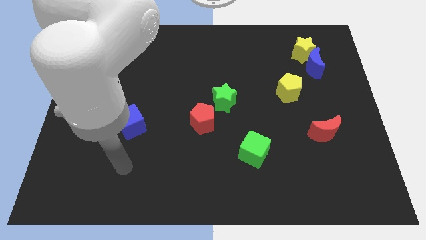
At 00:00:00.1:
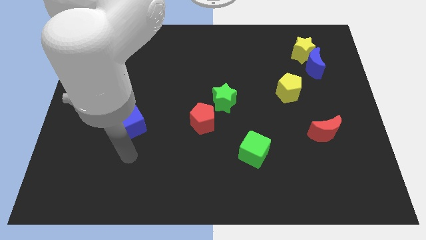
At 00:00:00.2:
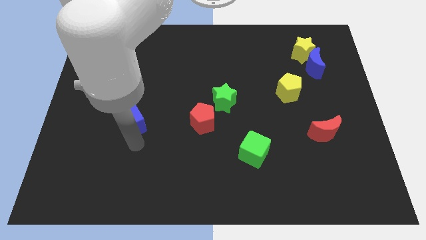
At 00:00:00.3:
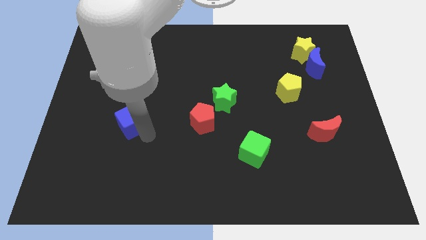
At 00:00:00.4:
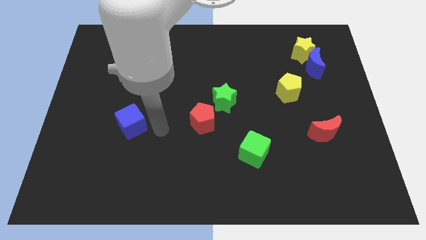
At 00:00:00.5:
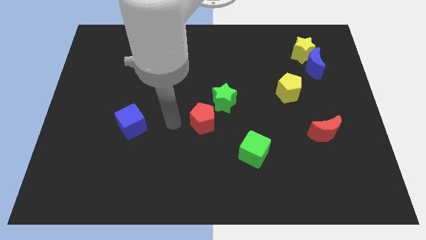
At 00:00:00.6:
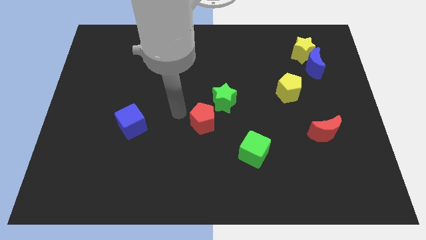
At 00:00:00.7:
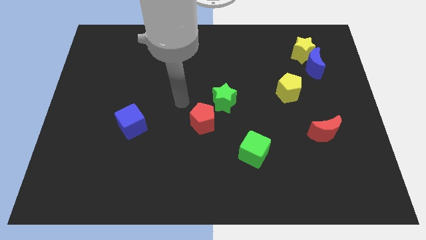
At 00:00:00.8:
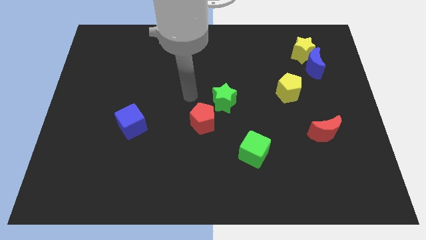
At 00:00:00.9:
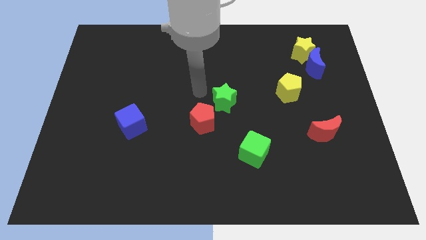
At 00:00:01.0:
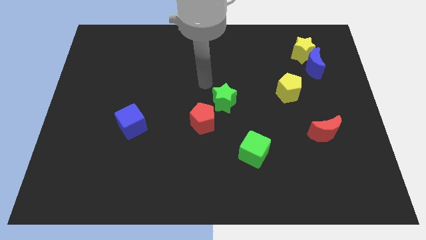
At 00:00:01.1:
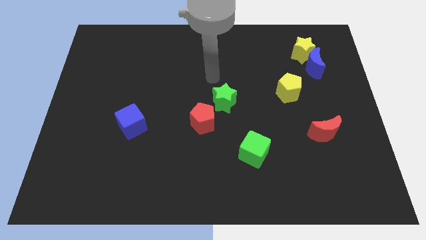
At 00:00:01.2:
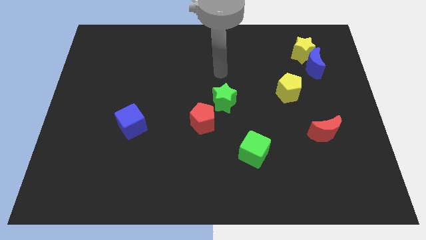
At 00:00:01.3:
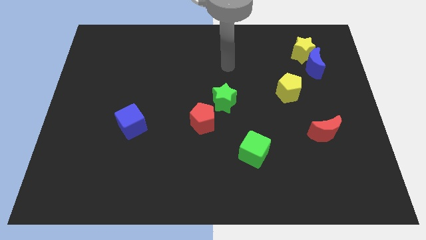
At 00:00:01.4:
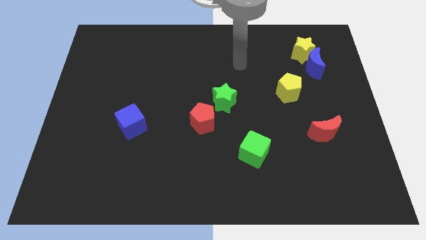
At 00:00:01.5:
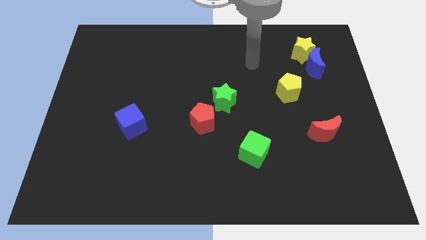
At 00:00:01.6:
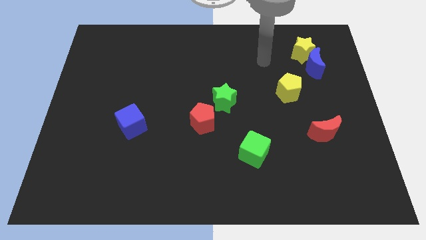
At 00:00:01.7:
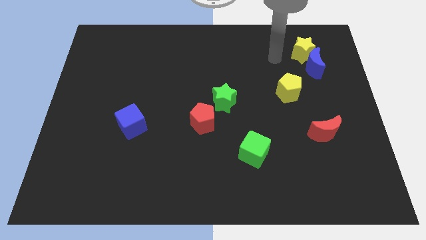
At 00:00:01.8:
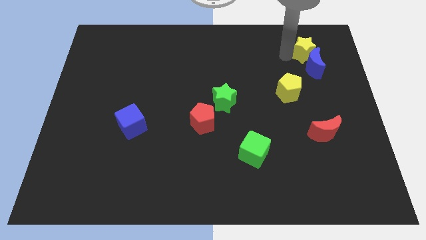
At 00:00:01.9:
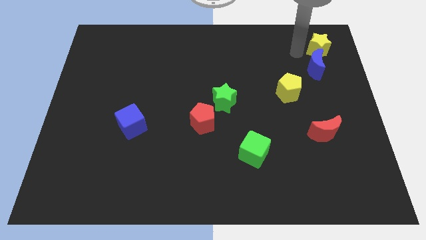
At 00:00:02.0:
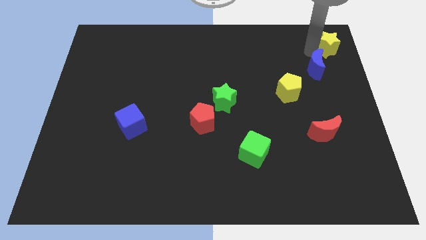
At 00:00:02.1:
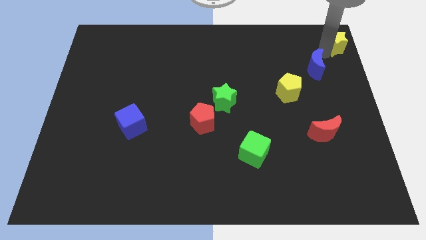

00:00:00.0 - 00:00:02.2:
pull the blue moon apart from the yellow star

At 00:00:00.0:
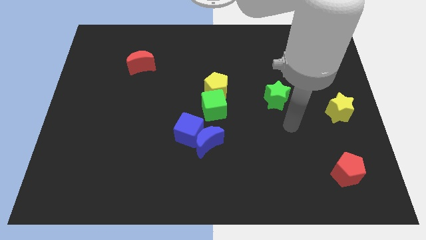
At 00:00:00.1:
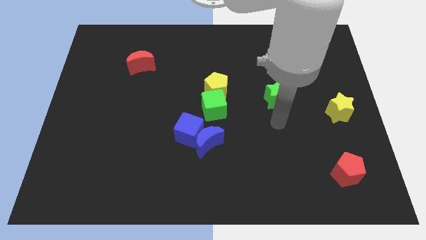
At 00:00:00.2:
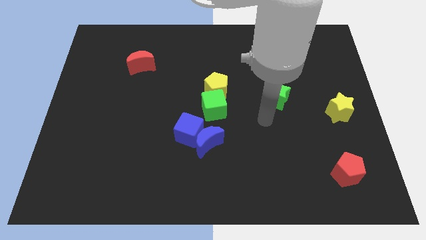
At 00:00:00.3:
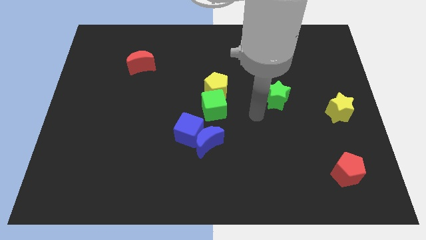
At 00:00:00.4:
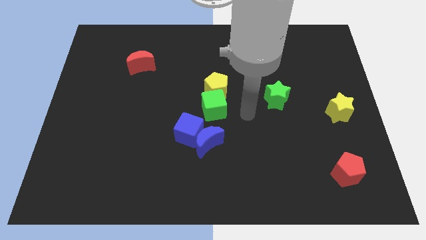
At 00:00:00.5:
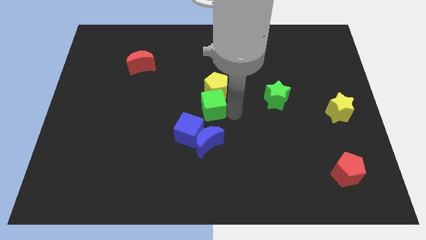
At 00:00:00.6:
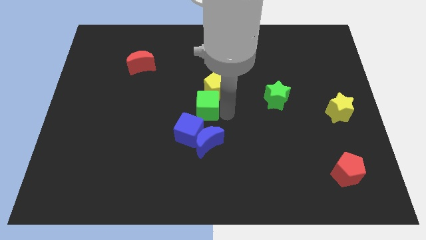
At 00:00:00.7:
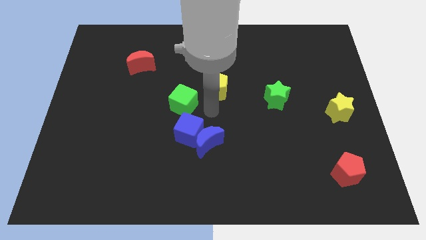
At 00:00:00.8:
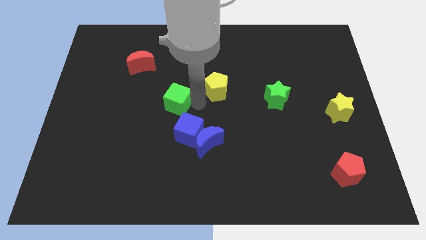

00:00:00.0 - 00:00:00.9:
move the yellow pentagon away from the green cube

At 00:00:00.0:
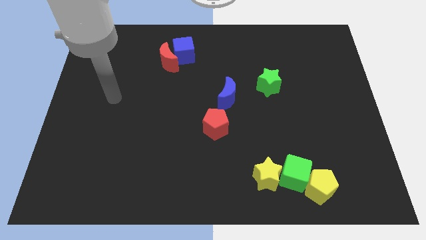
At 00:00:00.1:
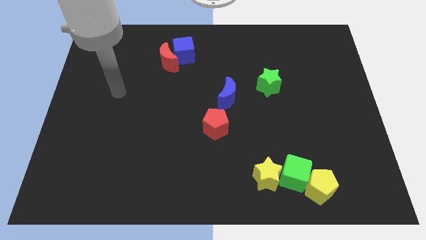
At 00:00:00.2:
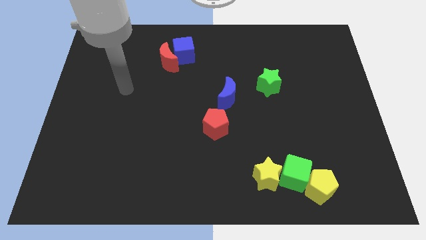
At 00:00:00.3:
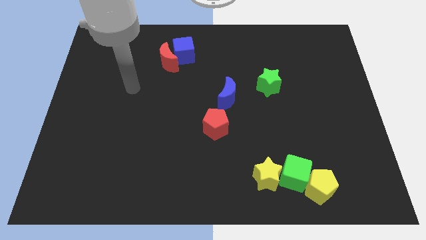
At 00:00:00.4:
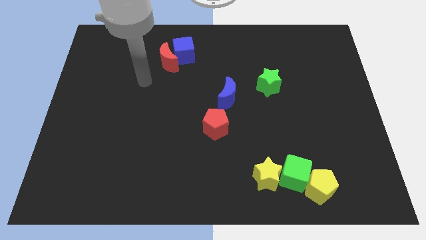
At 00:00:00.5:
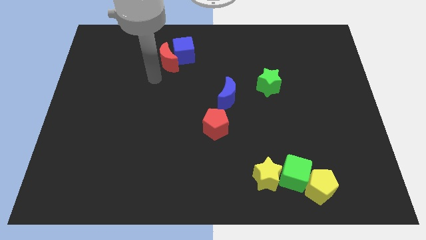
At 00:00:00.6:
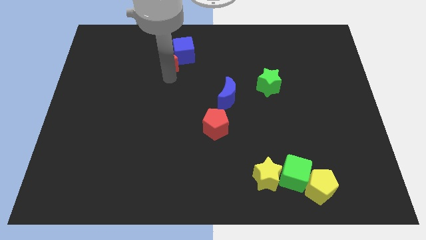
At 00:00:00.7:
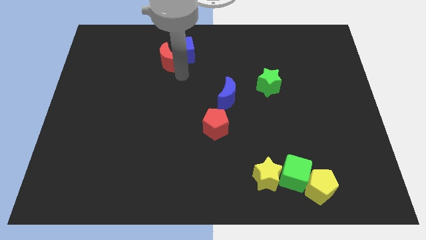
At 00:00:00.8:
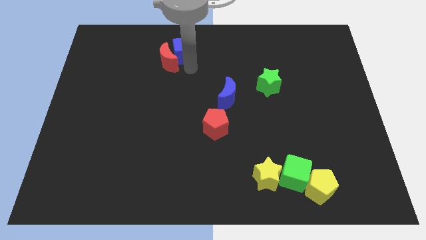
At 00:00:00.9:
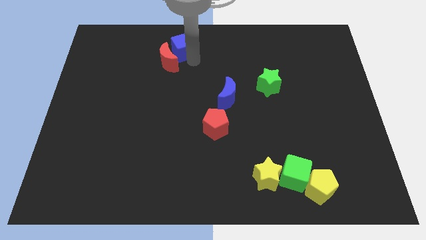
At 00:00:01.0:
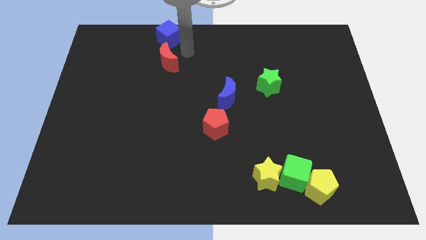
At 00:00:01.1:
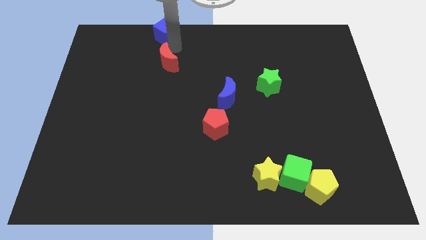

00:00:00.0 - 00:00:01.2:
pull the red moon apart from the blue cube

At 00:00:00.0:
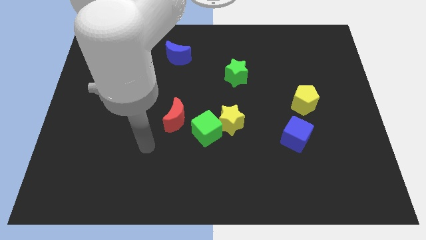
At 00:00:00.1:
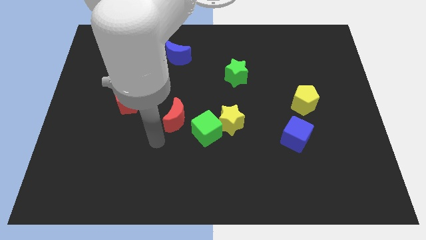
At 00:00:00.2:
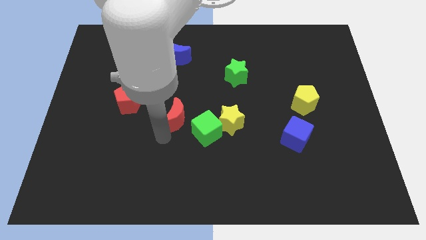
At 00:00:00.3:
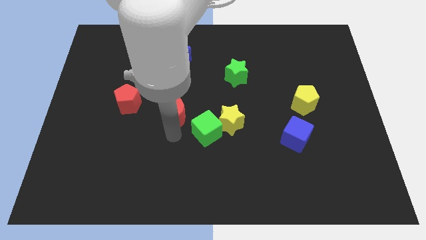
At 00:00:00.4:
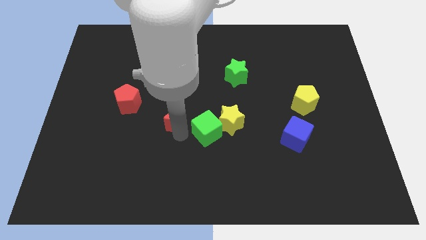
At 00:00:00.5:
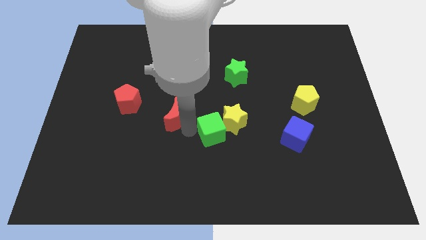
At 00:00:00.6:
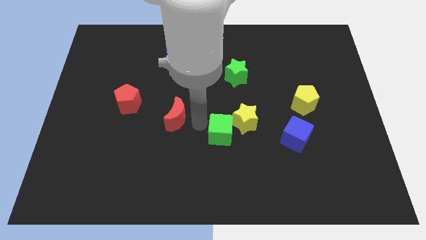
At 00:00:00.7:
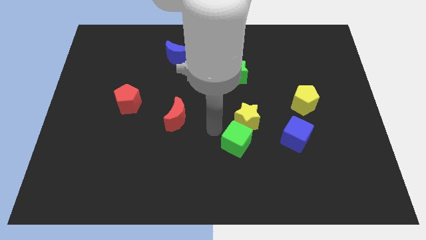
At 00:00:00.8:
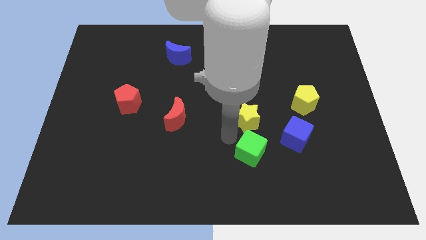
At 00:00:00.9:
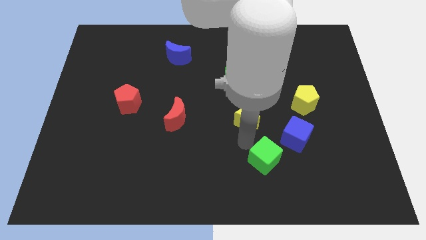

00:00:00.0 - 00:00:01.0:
pull the yellow star apart from the green cube

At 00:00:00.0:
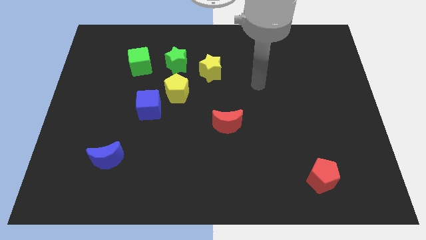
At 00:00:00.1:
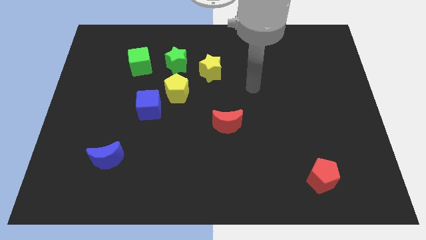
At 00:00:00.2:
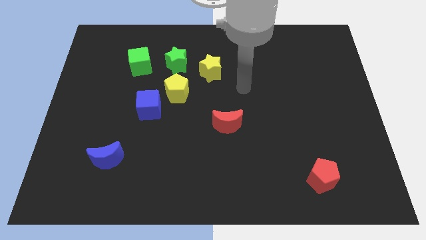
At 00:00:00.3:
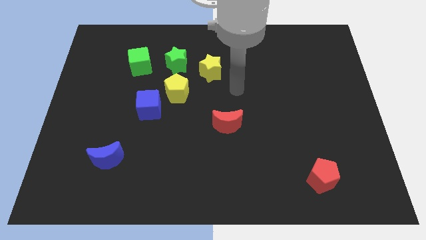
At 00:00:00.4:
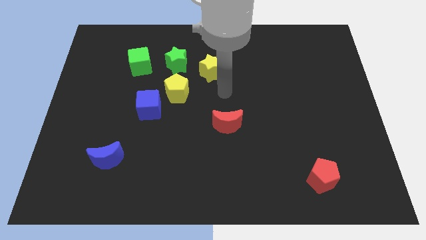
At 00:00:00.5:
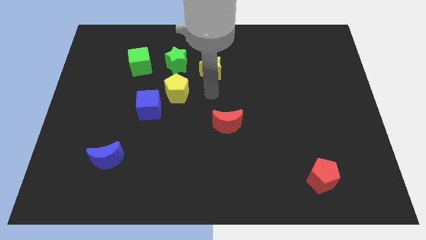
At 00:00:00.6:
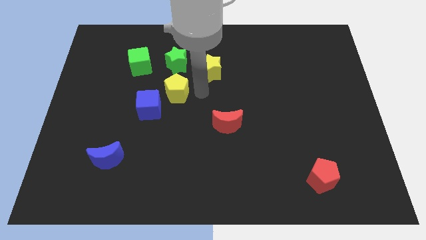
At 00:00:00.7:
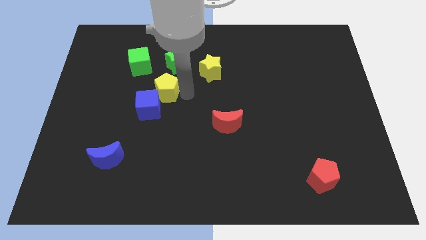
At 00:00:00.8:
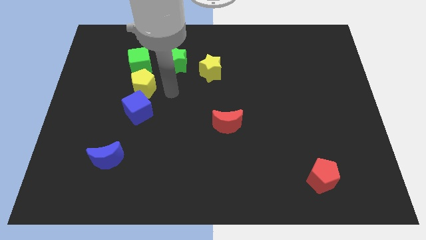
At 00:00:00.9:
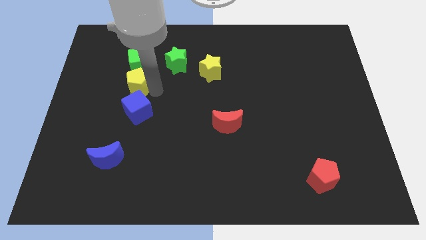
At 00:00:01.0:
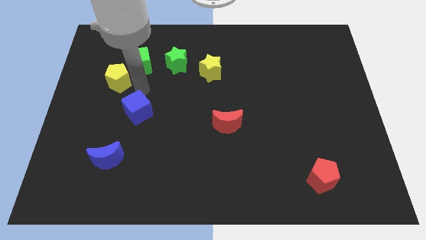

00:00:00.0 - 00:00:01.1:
move the blue cube away from the yellow pentagon

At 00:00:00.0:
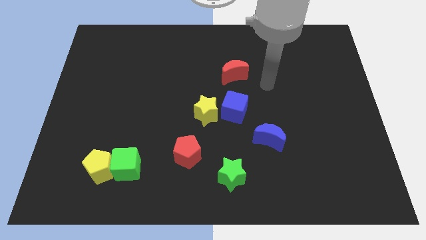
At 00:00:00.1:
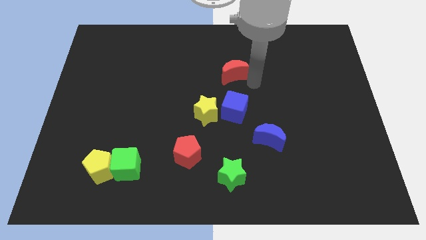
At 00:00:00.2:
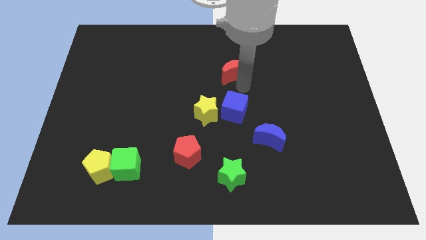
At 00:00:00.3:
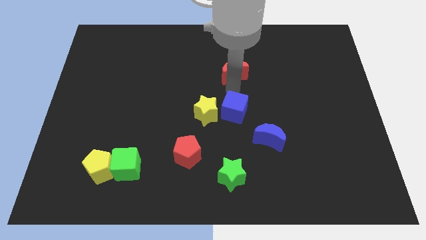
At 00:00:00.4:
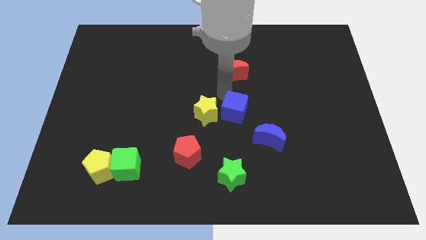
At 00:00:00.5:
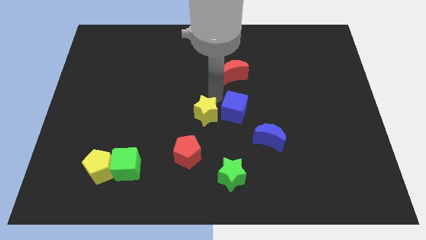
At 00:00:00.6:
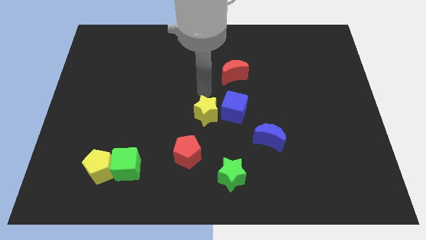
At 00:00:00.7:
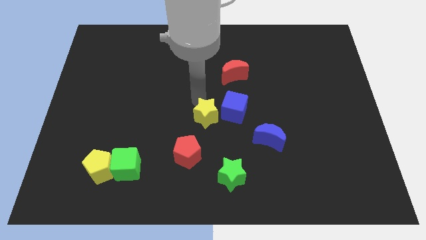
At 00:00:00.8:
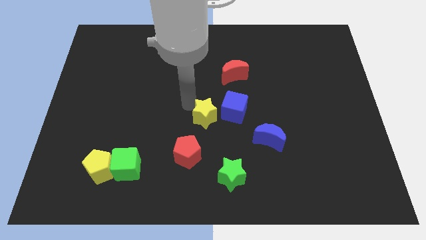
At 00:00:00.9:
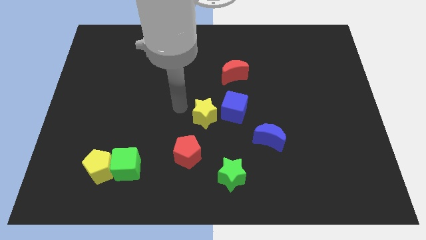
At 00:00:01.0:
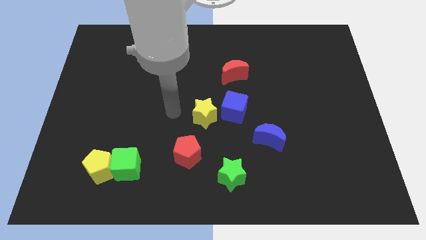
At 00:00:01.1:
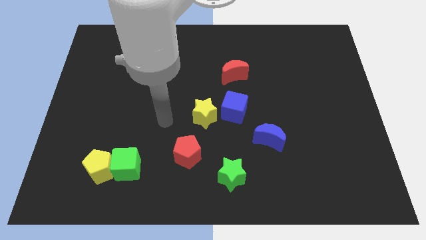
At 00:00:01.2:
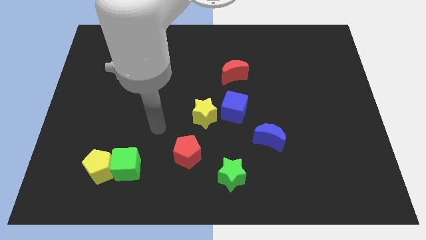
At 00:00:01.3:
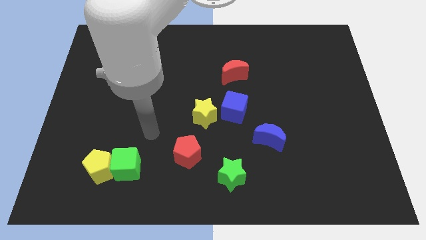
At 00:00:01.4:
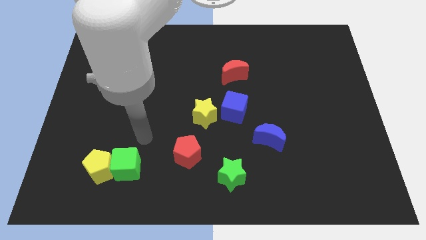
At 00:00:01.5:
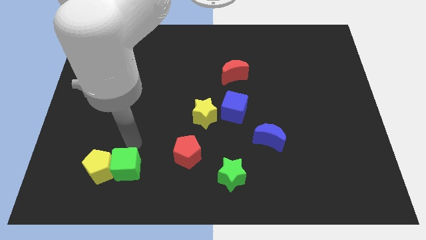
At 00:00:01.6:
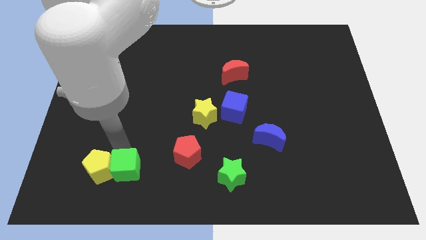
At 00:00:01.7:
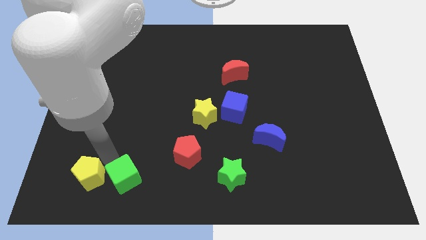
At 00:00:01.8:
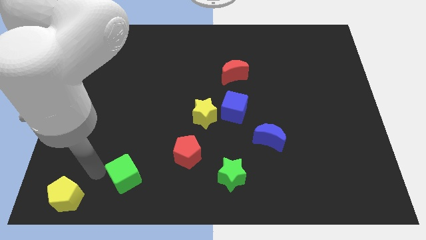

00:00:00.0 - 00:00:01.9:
move the green cube away from the yellow pentagon

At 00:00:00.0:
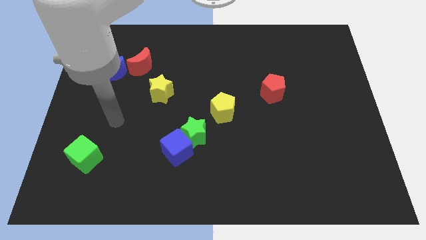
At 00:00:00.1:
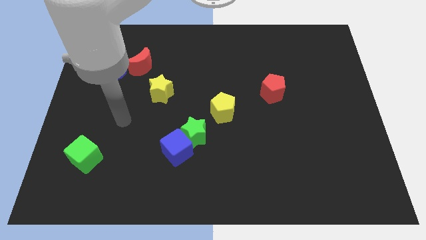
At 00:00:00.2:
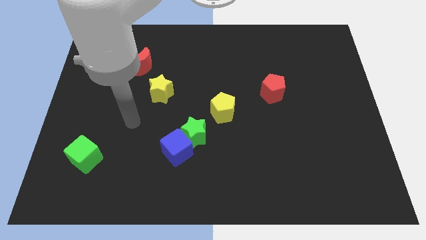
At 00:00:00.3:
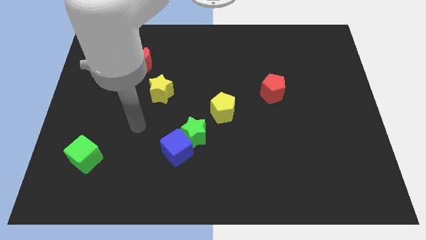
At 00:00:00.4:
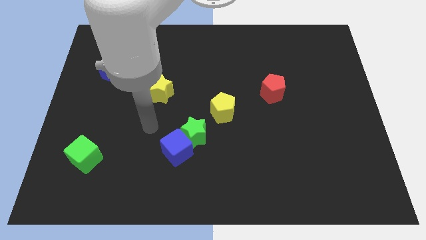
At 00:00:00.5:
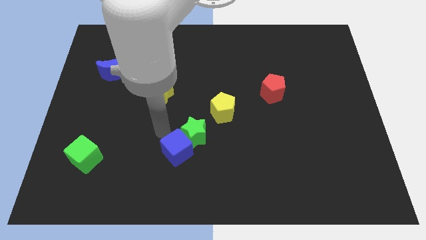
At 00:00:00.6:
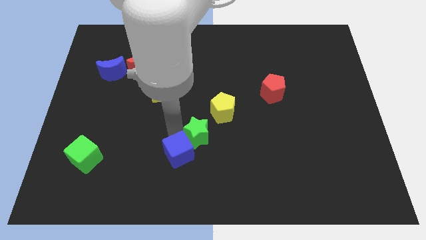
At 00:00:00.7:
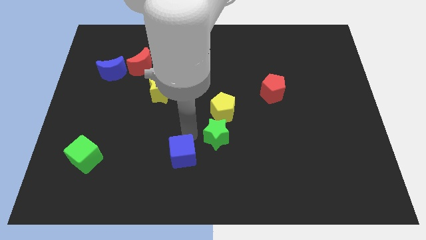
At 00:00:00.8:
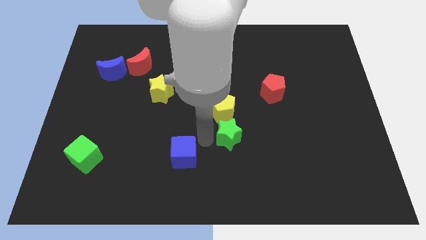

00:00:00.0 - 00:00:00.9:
move the blue cube away from the green star
